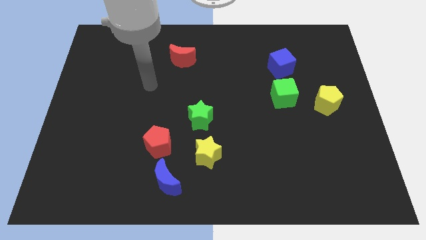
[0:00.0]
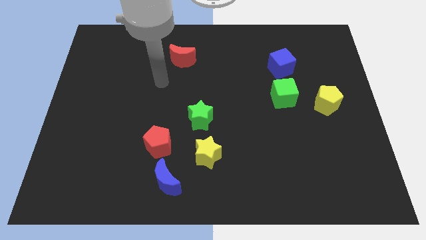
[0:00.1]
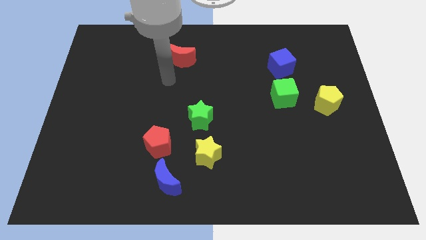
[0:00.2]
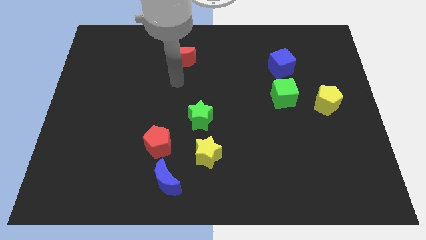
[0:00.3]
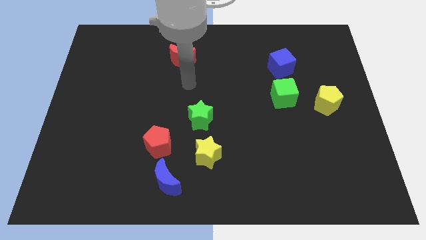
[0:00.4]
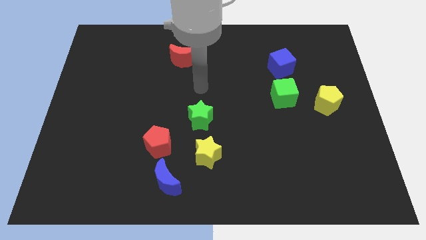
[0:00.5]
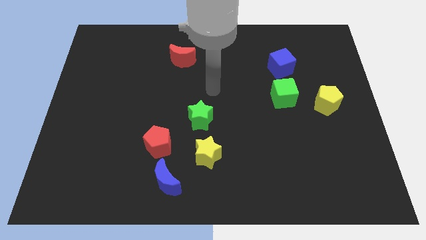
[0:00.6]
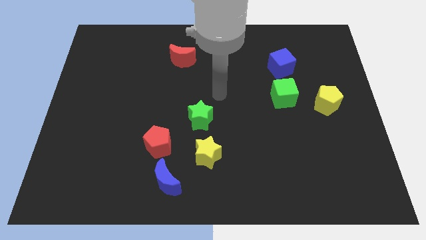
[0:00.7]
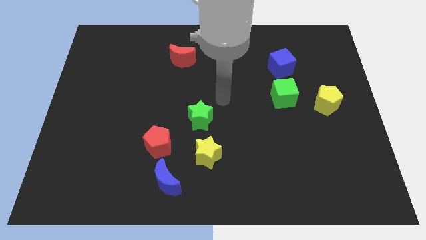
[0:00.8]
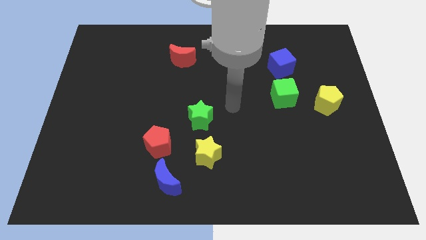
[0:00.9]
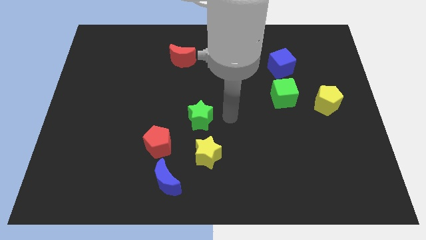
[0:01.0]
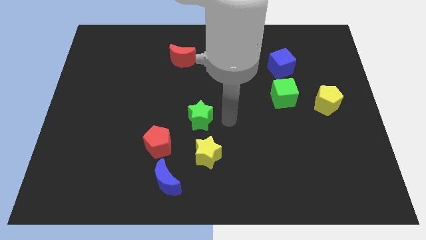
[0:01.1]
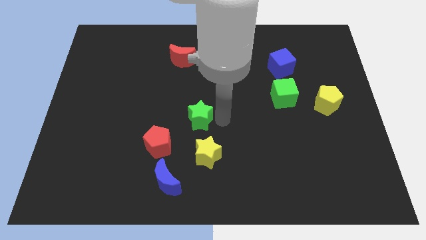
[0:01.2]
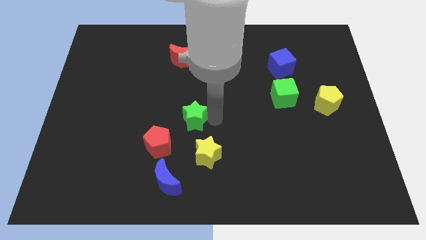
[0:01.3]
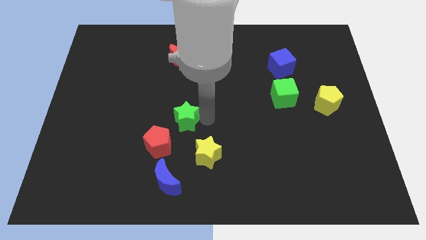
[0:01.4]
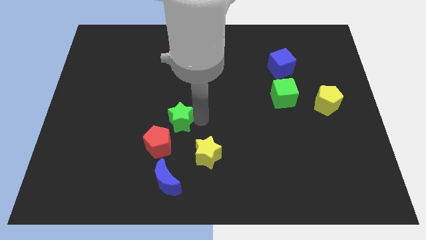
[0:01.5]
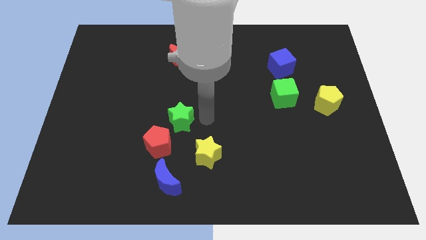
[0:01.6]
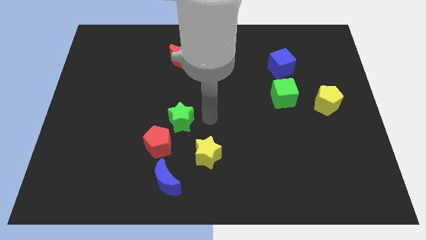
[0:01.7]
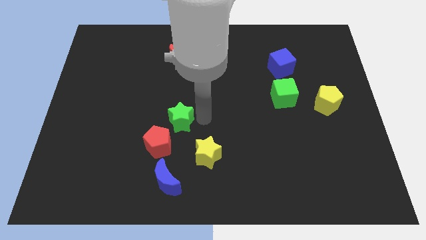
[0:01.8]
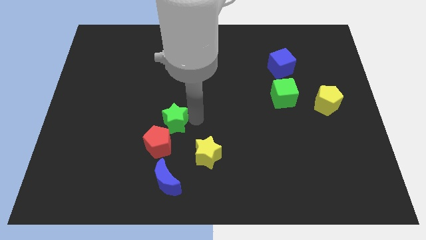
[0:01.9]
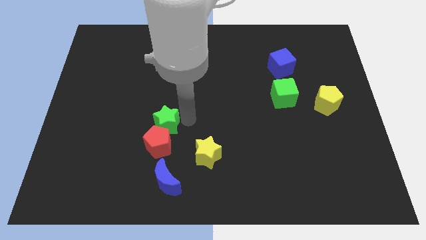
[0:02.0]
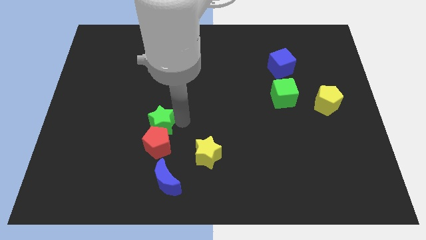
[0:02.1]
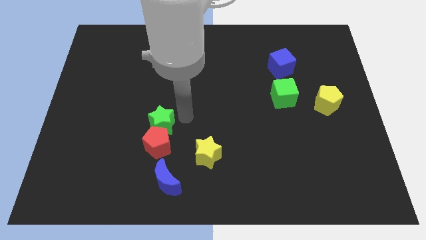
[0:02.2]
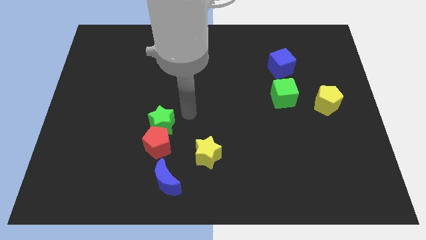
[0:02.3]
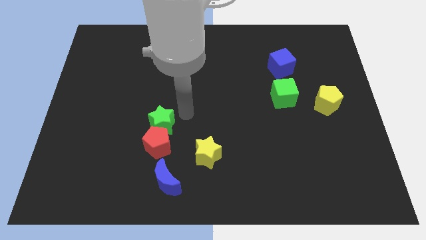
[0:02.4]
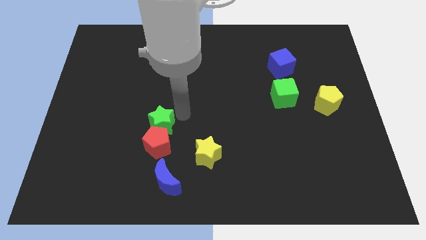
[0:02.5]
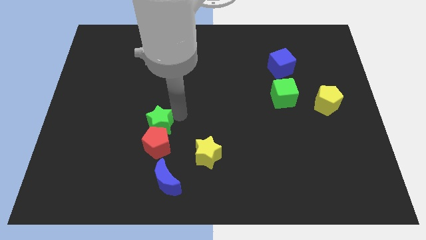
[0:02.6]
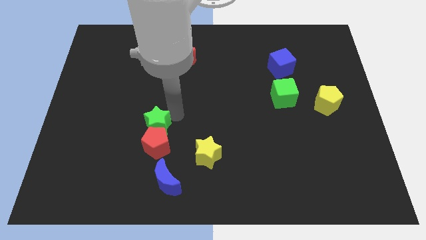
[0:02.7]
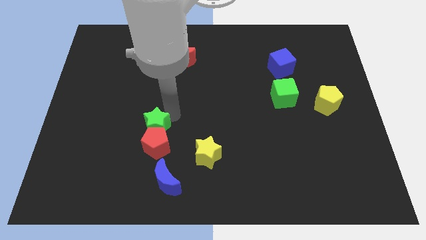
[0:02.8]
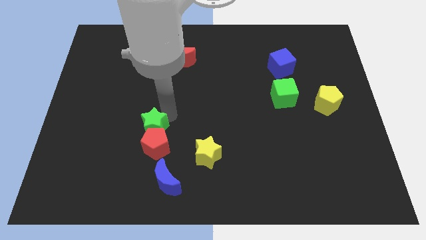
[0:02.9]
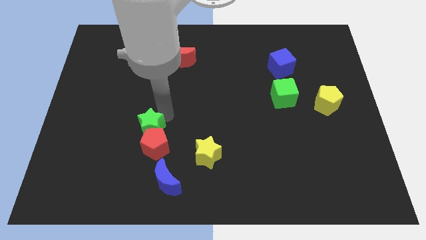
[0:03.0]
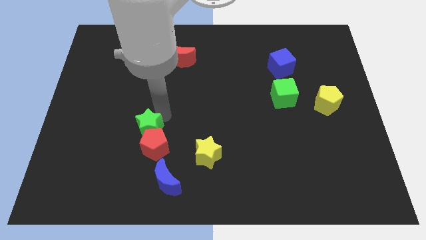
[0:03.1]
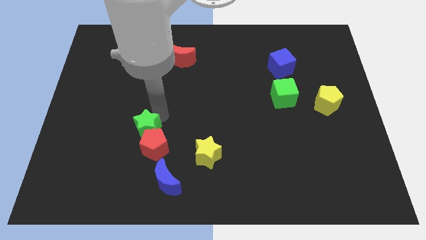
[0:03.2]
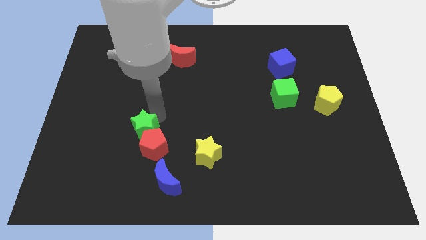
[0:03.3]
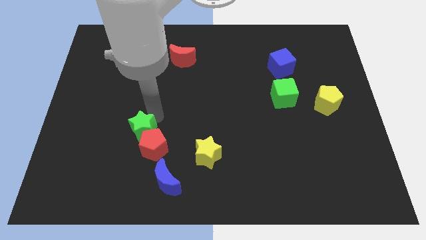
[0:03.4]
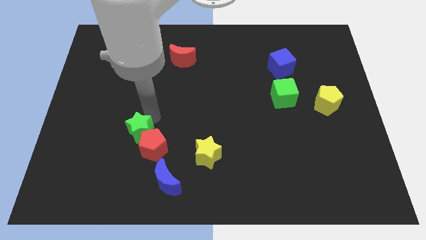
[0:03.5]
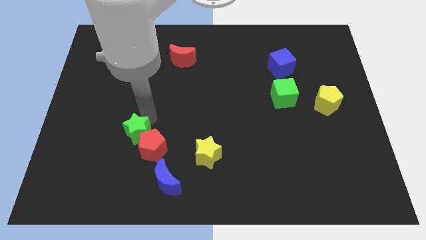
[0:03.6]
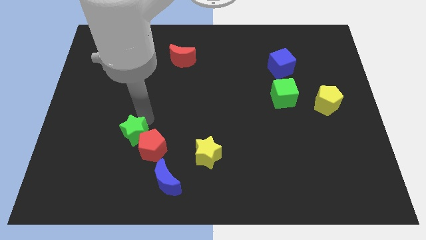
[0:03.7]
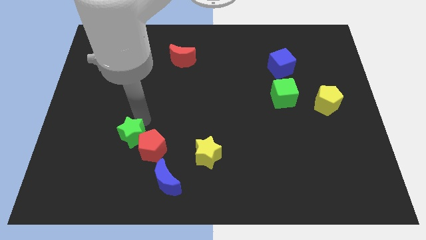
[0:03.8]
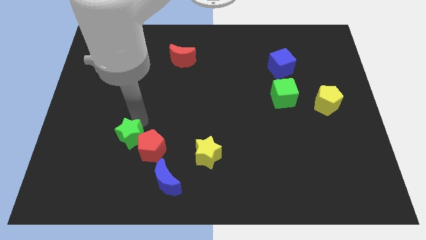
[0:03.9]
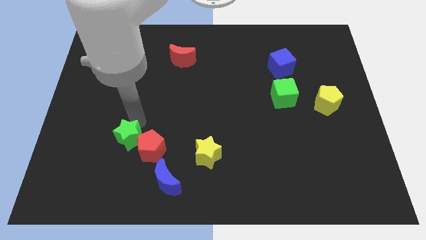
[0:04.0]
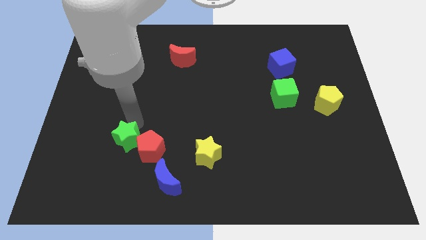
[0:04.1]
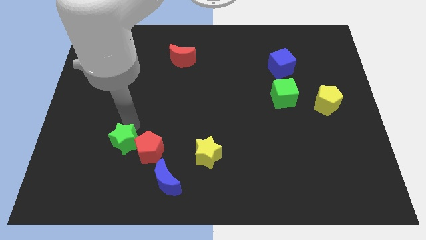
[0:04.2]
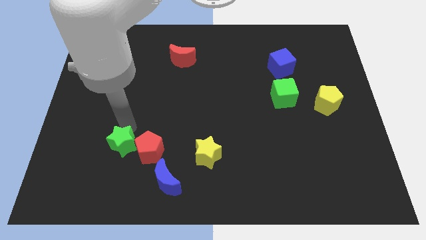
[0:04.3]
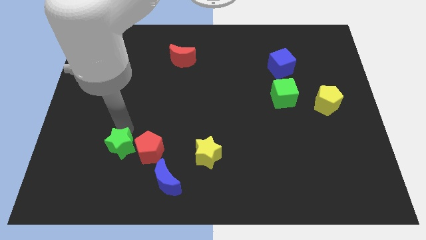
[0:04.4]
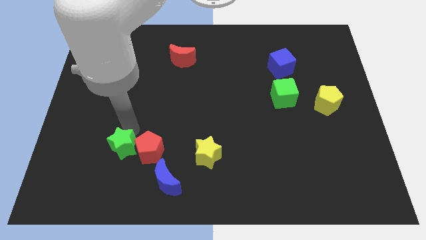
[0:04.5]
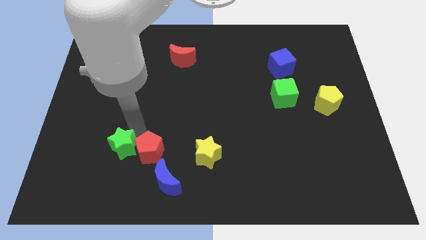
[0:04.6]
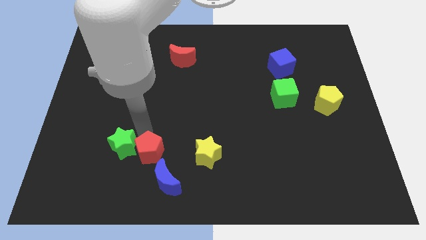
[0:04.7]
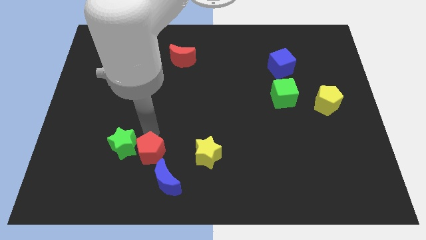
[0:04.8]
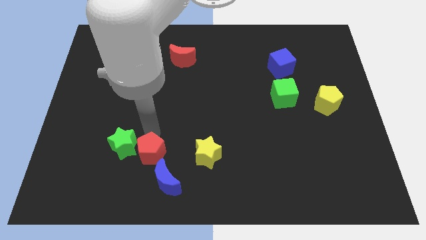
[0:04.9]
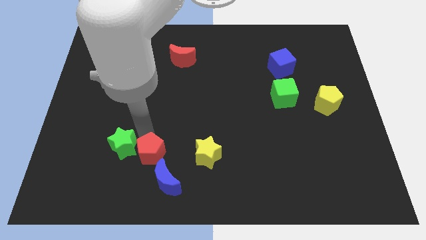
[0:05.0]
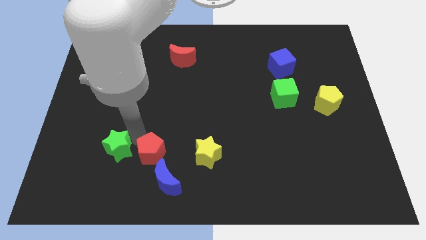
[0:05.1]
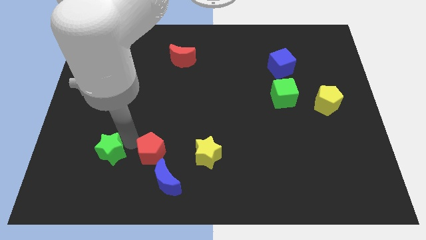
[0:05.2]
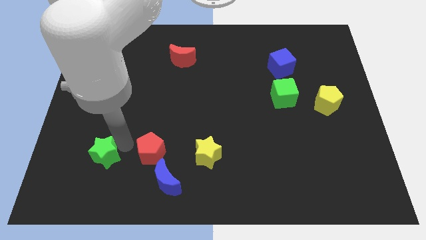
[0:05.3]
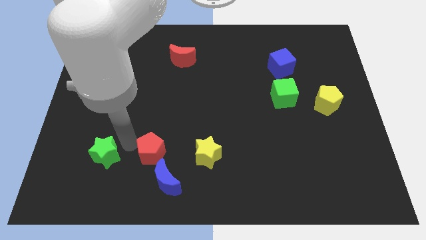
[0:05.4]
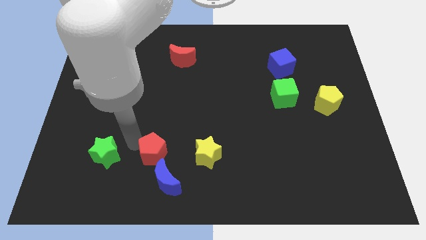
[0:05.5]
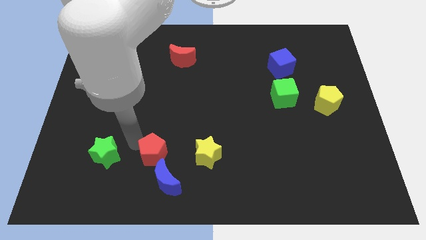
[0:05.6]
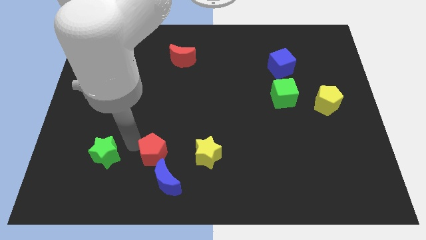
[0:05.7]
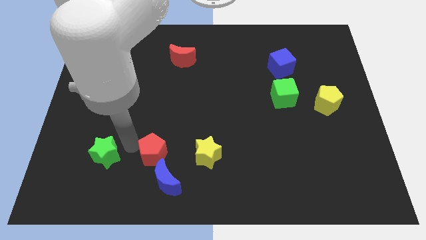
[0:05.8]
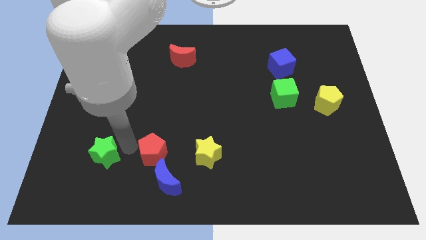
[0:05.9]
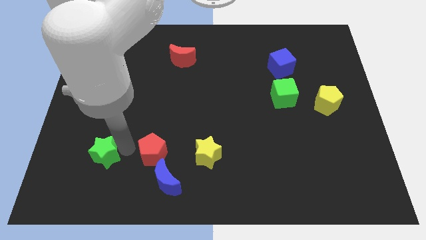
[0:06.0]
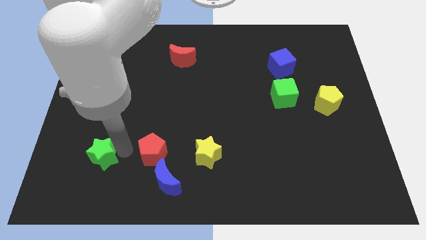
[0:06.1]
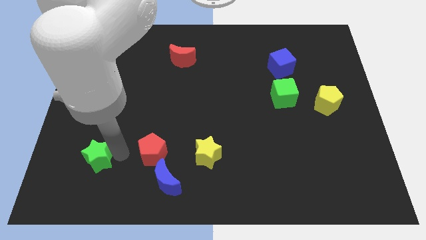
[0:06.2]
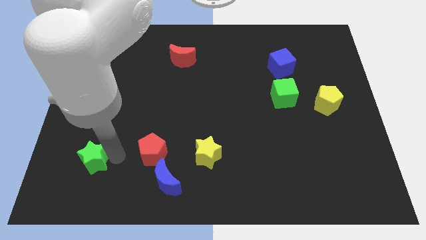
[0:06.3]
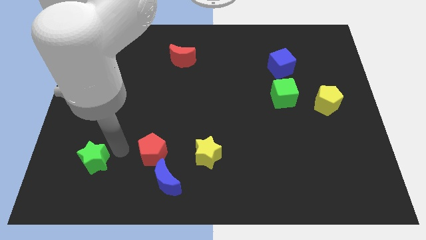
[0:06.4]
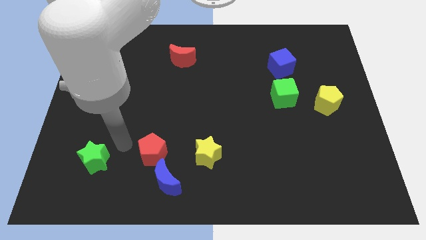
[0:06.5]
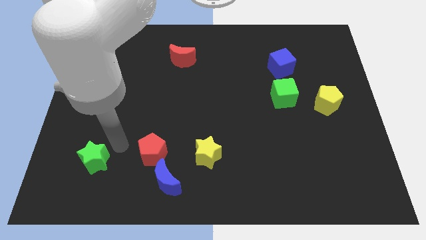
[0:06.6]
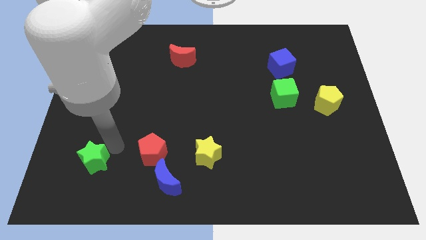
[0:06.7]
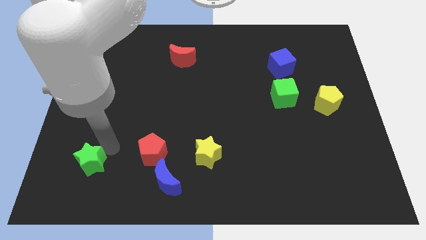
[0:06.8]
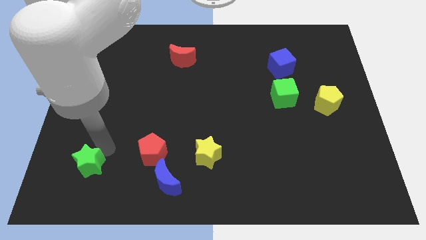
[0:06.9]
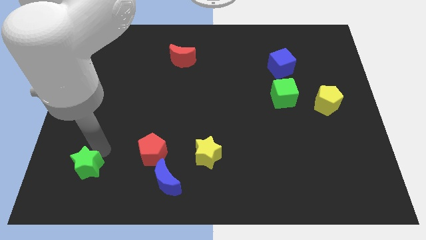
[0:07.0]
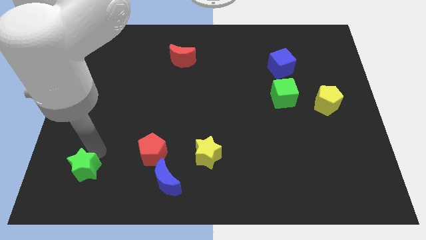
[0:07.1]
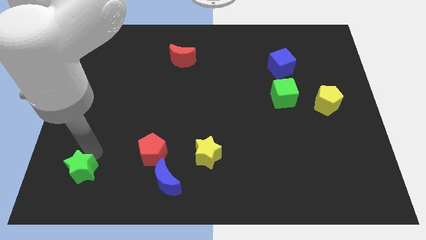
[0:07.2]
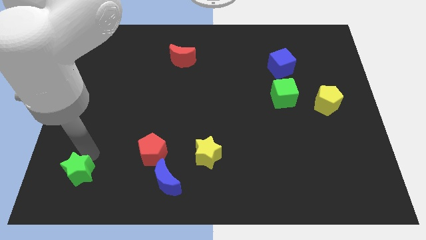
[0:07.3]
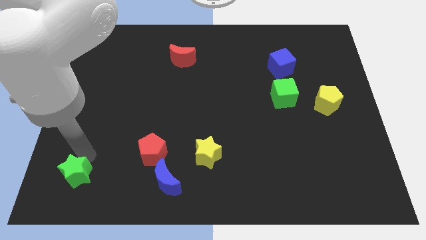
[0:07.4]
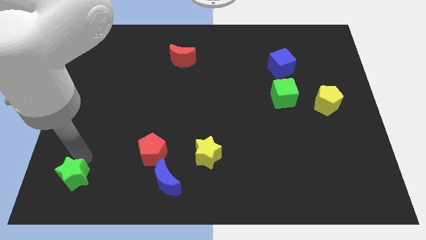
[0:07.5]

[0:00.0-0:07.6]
put the green star to the lower left corner

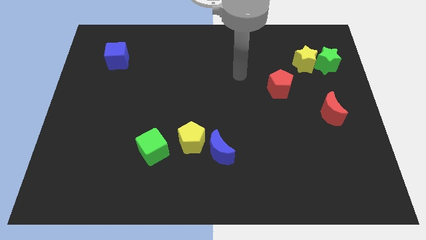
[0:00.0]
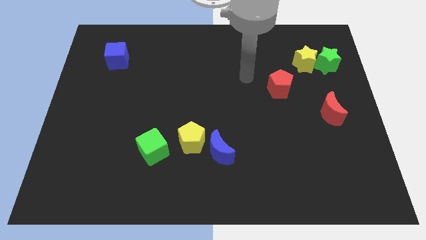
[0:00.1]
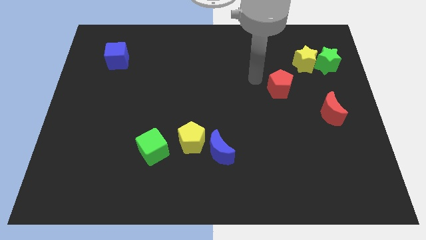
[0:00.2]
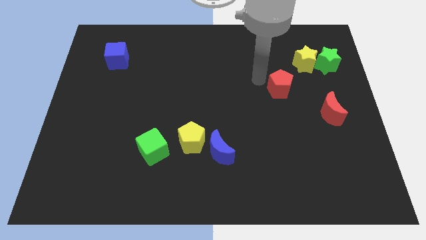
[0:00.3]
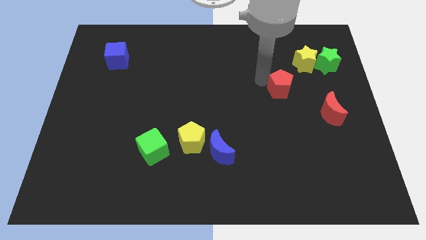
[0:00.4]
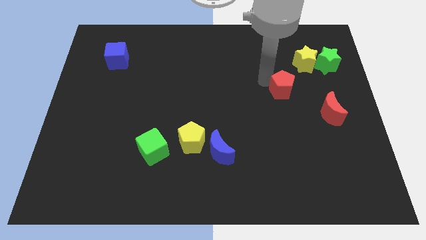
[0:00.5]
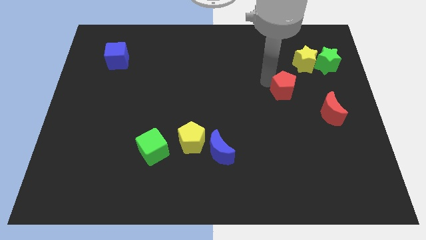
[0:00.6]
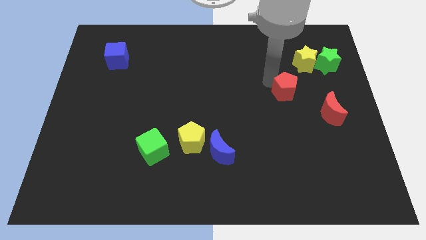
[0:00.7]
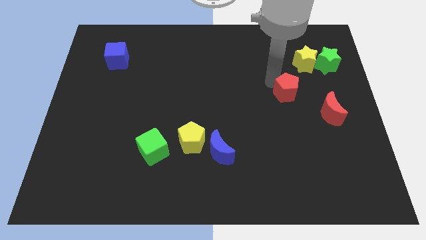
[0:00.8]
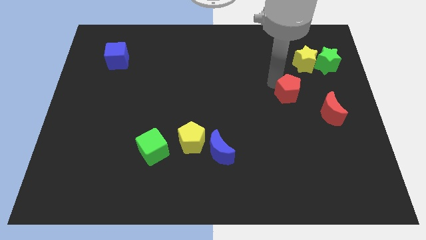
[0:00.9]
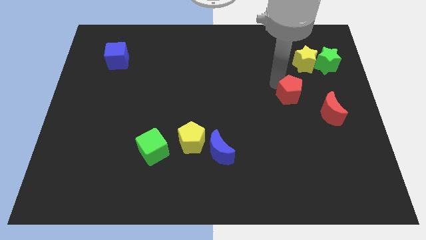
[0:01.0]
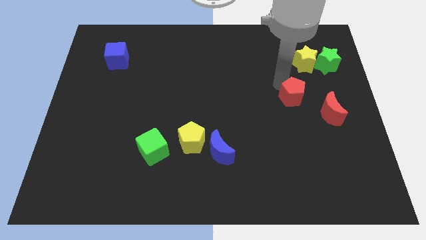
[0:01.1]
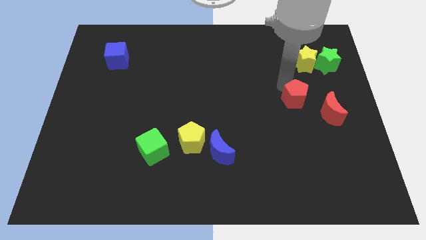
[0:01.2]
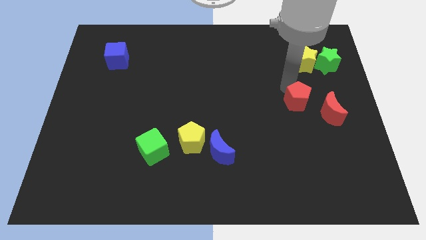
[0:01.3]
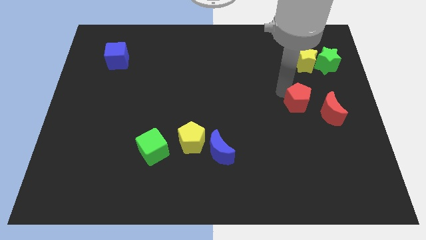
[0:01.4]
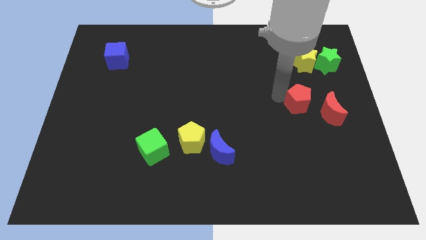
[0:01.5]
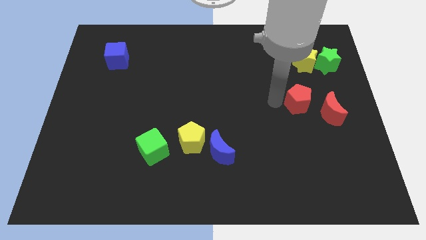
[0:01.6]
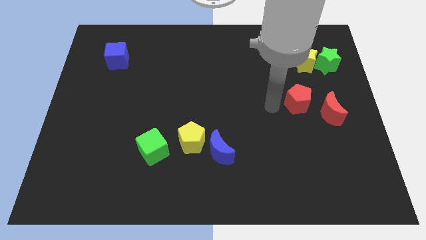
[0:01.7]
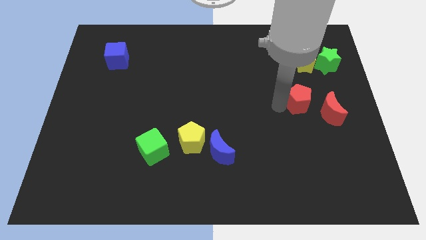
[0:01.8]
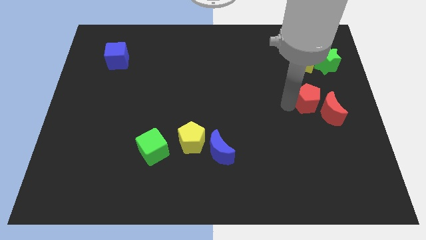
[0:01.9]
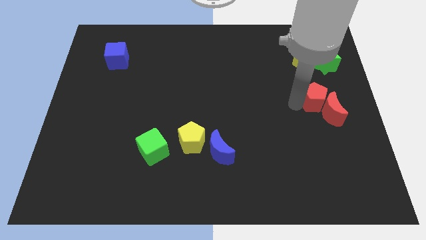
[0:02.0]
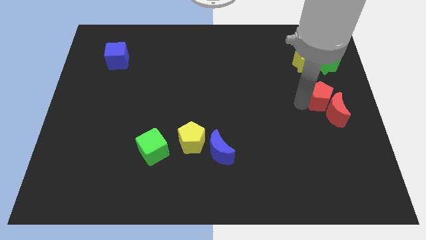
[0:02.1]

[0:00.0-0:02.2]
slide the red pentagon to the right side of the board
